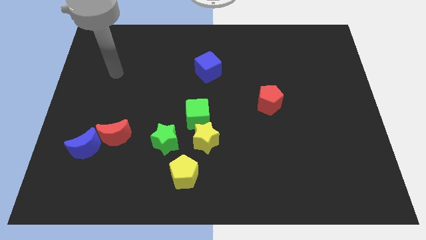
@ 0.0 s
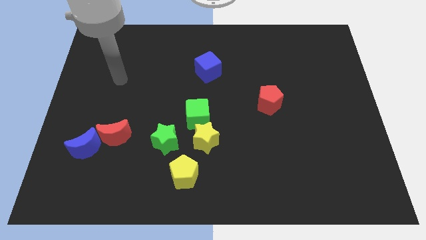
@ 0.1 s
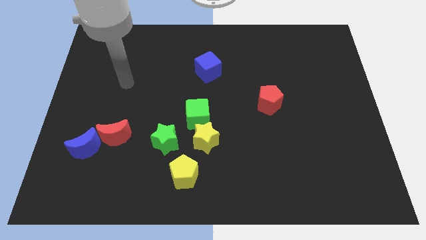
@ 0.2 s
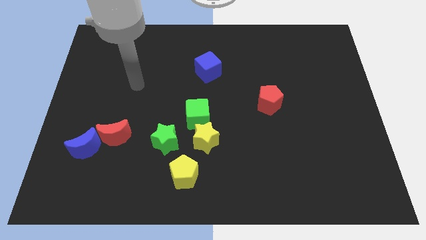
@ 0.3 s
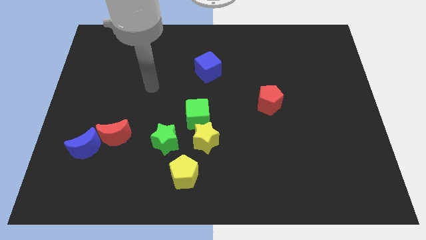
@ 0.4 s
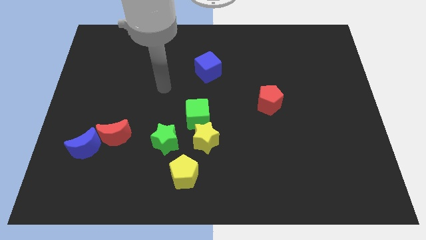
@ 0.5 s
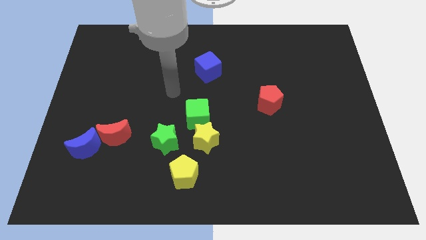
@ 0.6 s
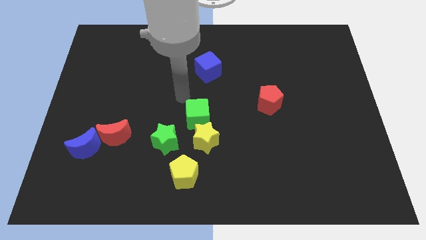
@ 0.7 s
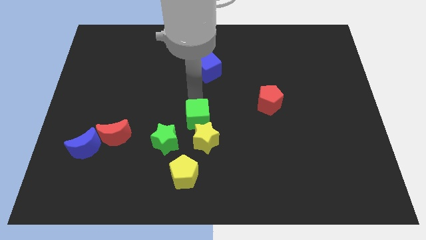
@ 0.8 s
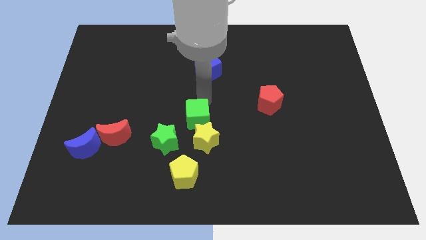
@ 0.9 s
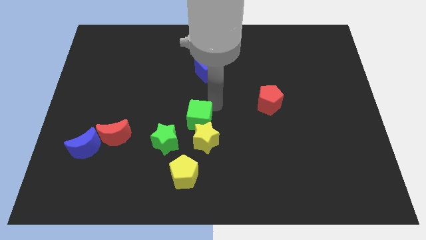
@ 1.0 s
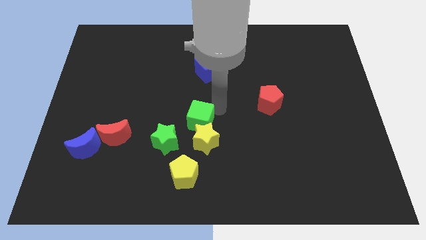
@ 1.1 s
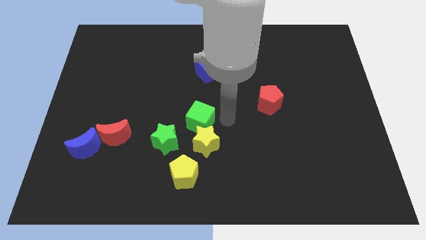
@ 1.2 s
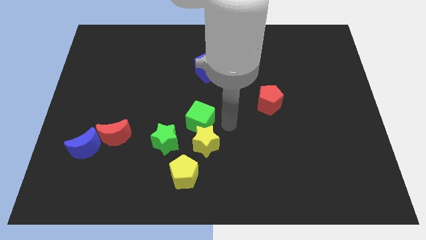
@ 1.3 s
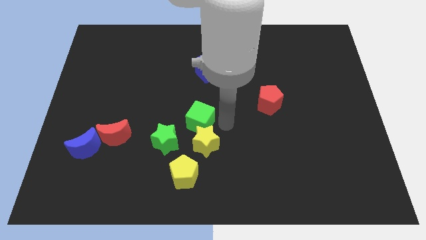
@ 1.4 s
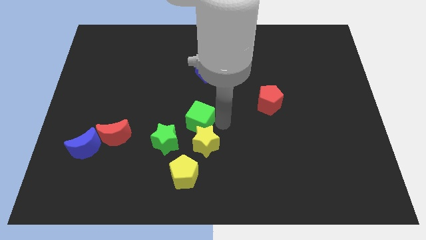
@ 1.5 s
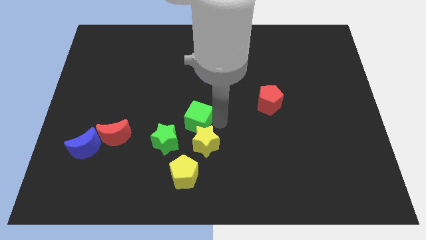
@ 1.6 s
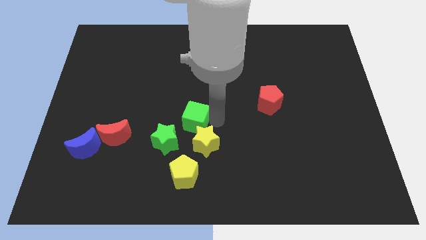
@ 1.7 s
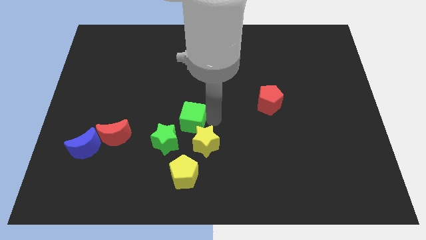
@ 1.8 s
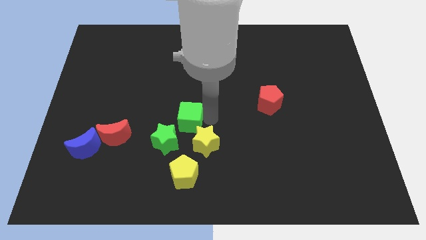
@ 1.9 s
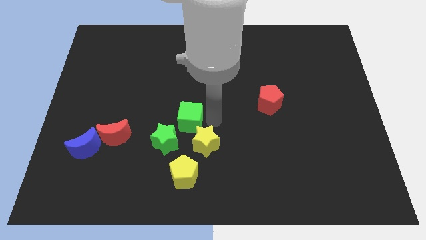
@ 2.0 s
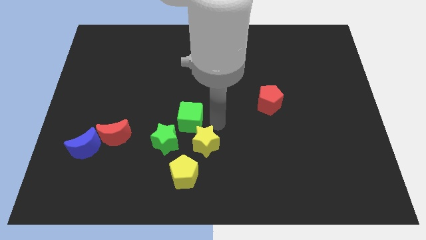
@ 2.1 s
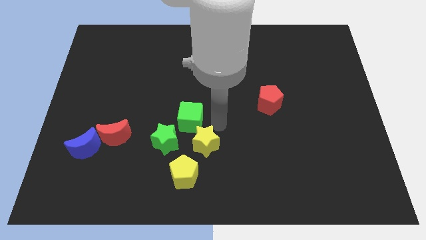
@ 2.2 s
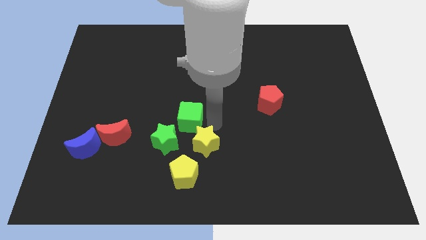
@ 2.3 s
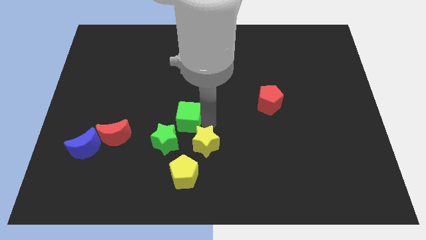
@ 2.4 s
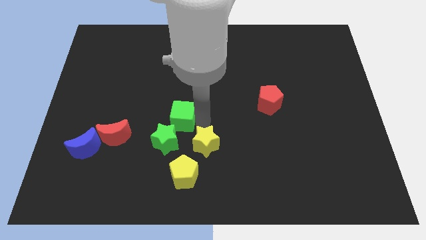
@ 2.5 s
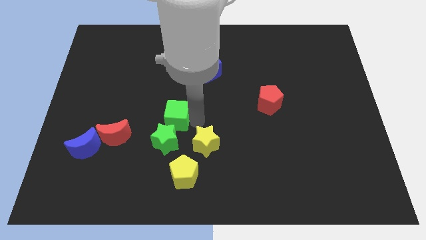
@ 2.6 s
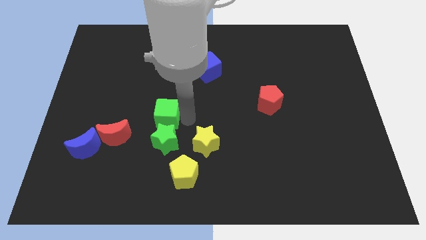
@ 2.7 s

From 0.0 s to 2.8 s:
slightly push the green cube left

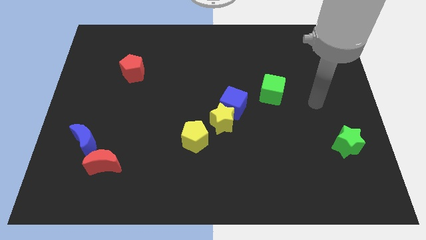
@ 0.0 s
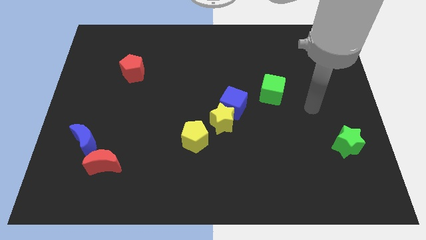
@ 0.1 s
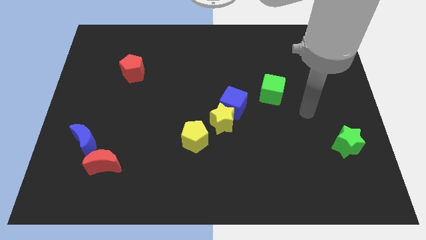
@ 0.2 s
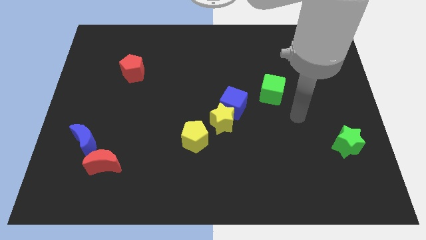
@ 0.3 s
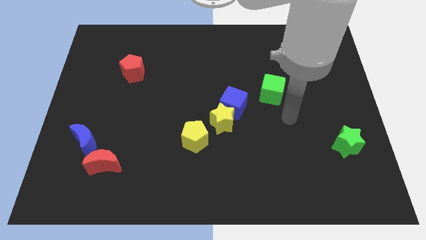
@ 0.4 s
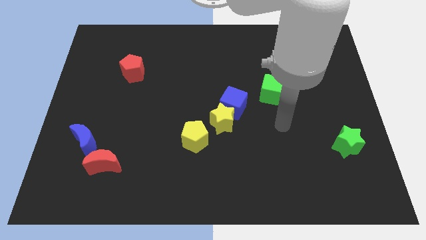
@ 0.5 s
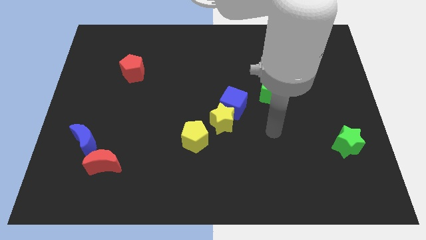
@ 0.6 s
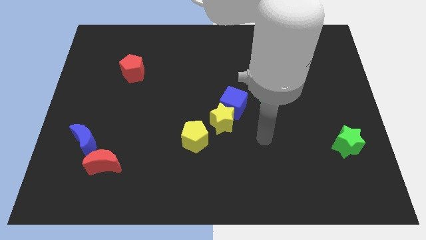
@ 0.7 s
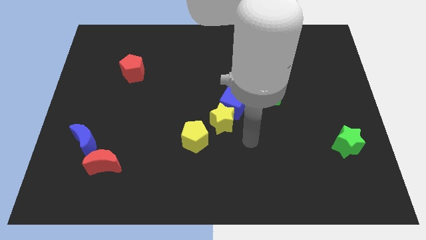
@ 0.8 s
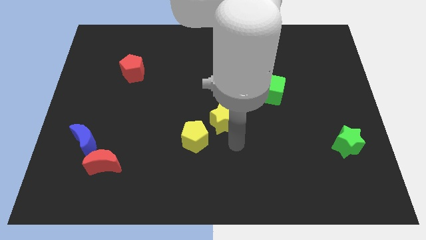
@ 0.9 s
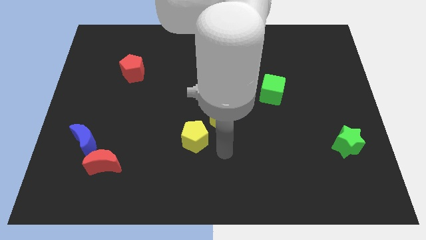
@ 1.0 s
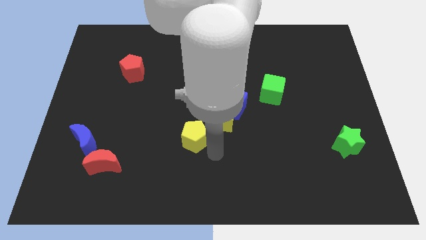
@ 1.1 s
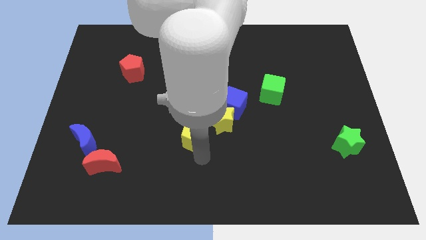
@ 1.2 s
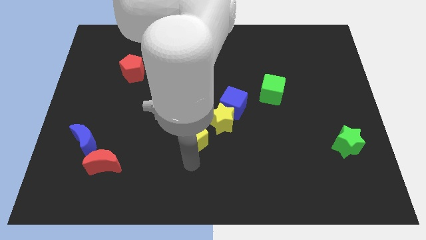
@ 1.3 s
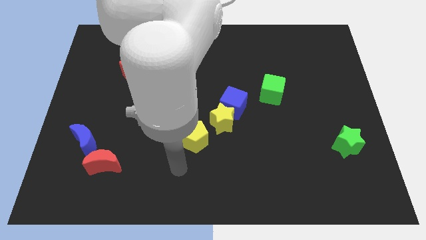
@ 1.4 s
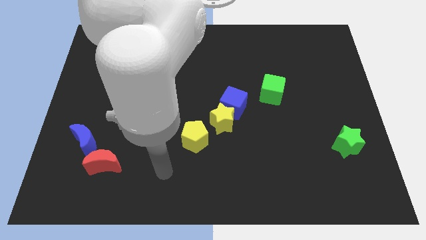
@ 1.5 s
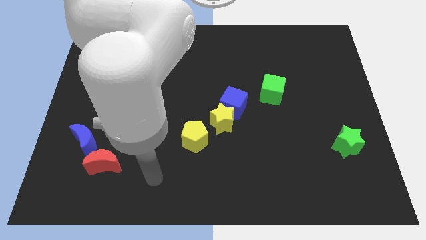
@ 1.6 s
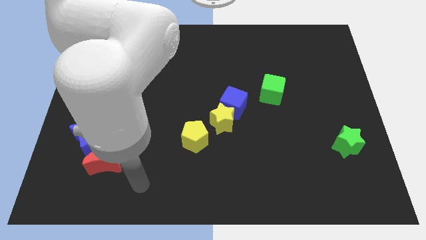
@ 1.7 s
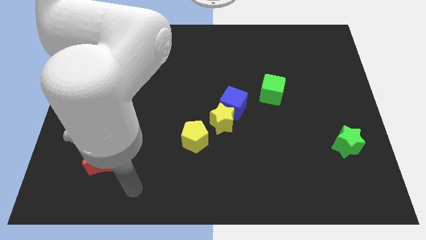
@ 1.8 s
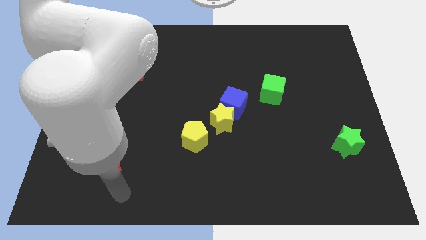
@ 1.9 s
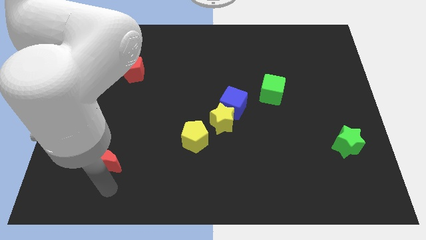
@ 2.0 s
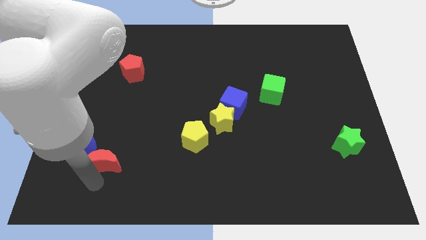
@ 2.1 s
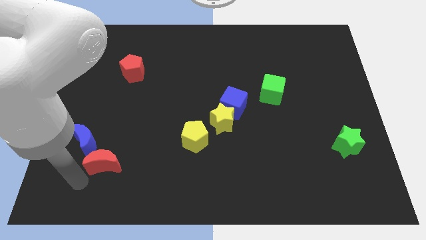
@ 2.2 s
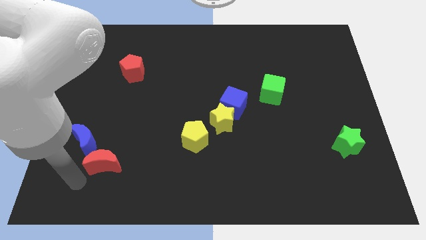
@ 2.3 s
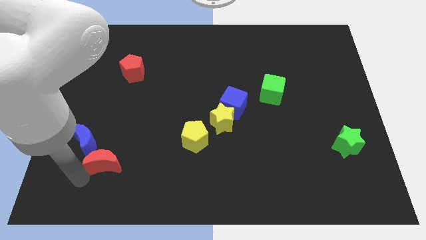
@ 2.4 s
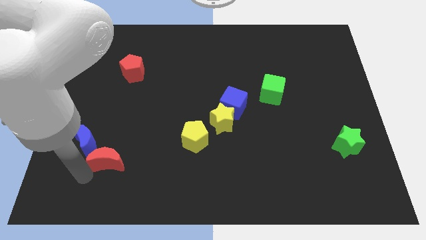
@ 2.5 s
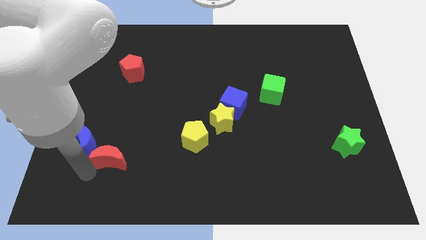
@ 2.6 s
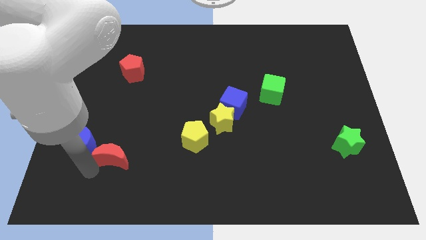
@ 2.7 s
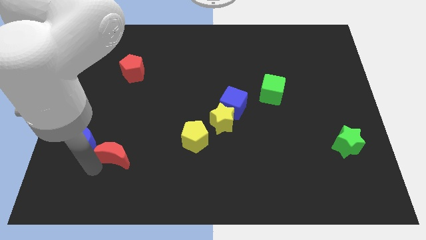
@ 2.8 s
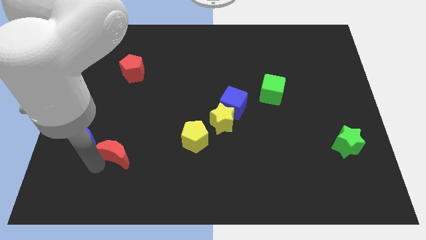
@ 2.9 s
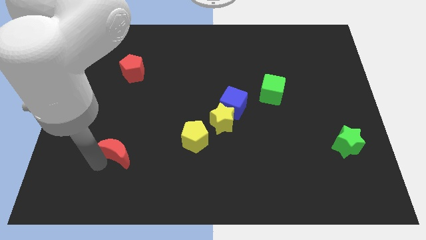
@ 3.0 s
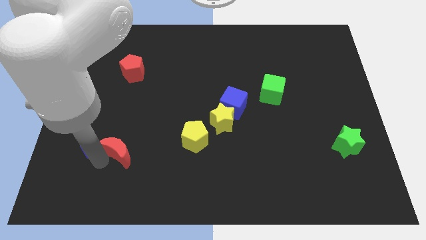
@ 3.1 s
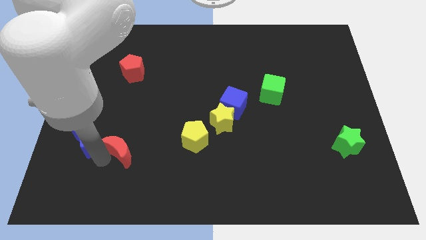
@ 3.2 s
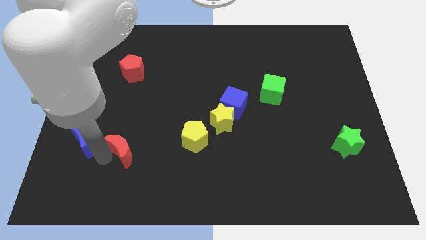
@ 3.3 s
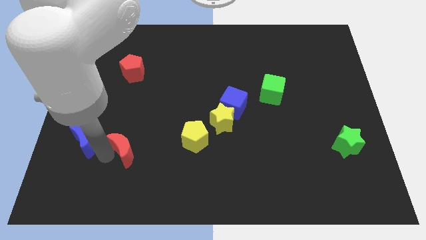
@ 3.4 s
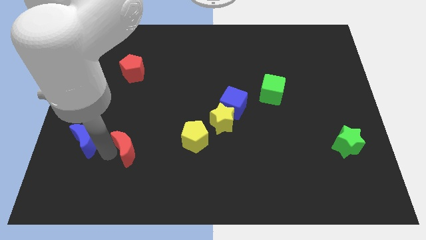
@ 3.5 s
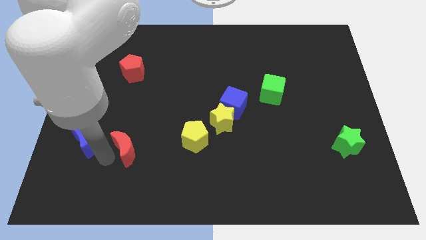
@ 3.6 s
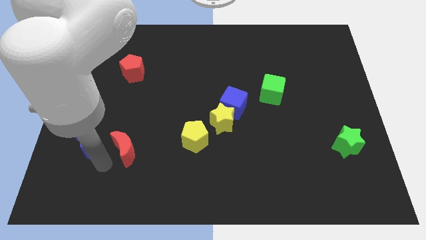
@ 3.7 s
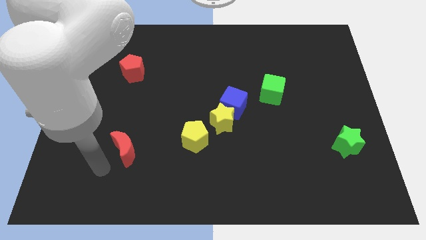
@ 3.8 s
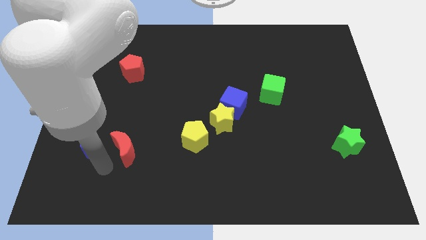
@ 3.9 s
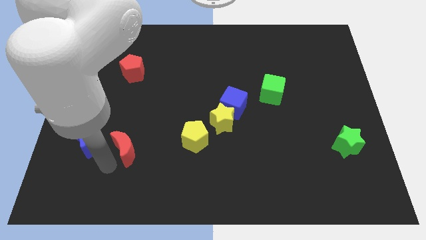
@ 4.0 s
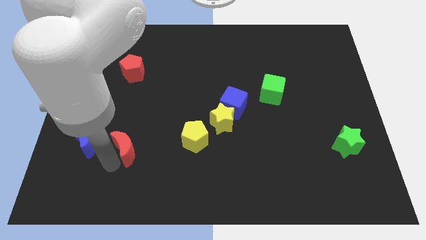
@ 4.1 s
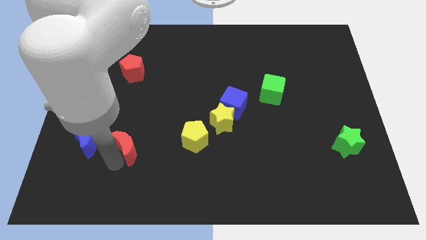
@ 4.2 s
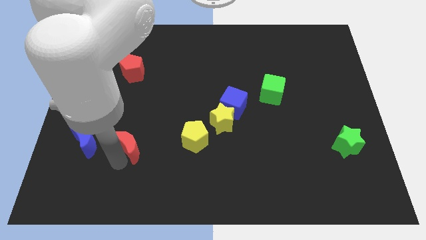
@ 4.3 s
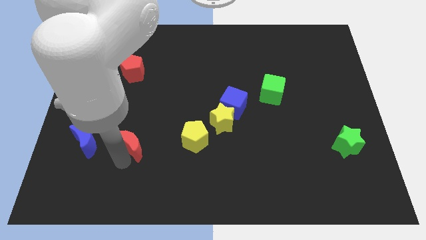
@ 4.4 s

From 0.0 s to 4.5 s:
slide the red moon upwards and to the right a little bit

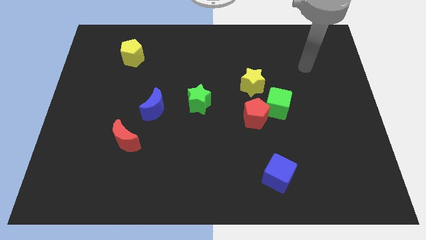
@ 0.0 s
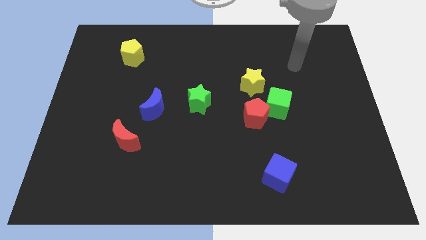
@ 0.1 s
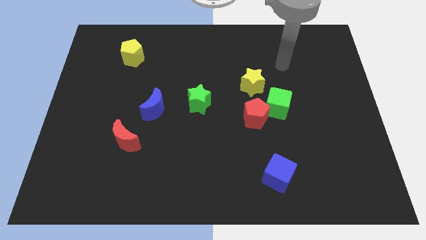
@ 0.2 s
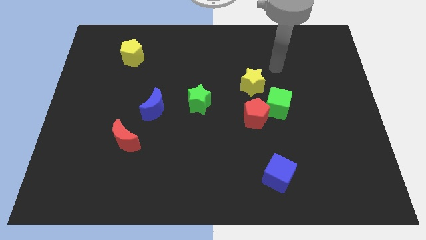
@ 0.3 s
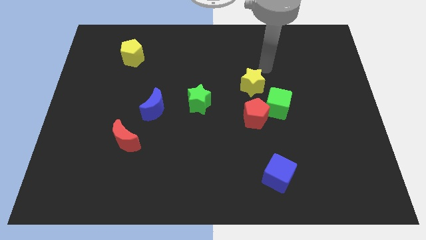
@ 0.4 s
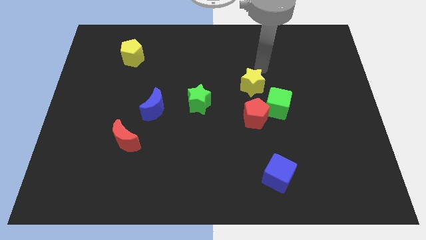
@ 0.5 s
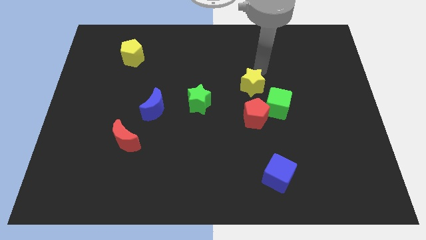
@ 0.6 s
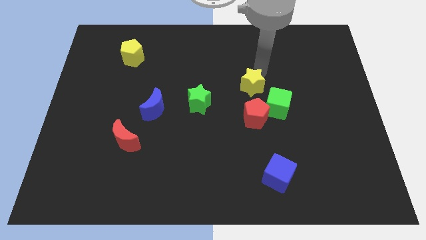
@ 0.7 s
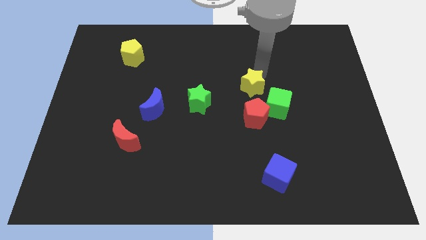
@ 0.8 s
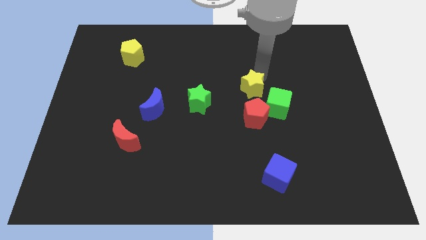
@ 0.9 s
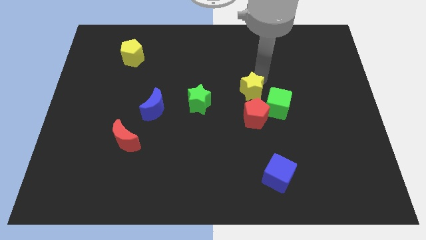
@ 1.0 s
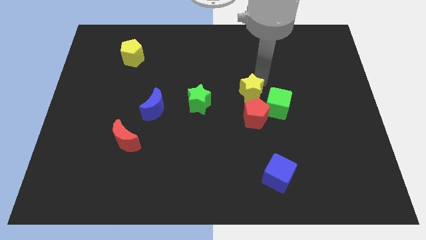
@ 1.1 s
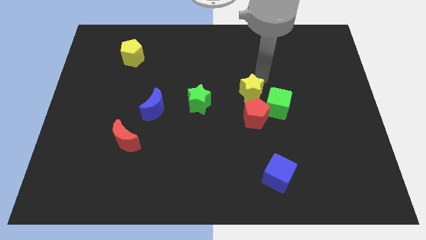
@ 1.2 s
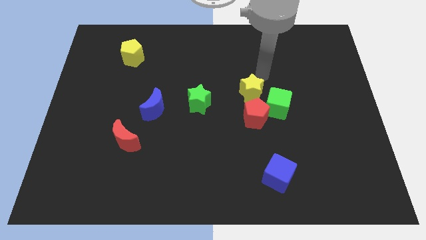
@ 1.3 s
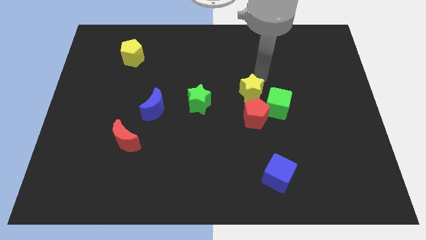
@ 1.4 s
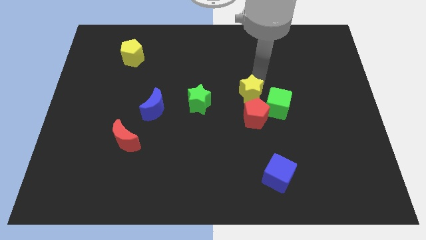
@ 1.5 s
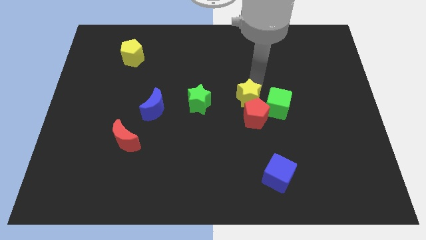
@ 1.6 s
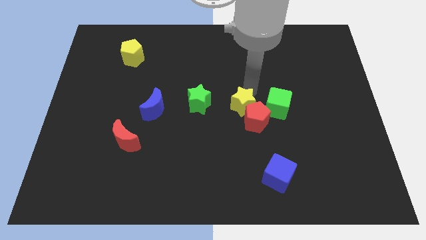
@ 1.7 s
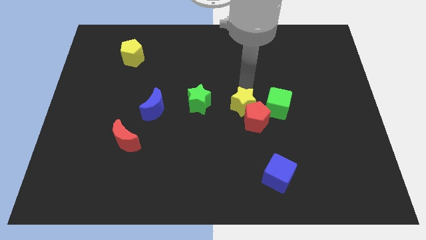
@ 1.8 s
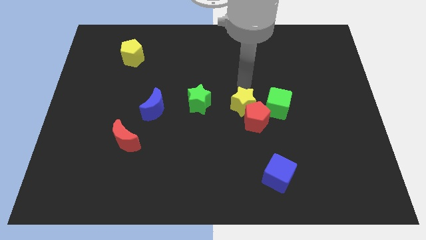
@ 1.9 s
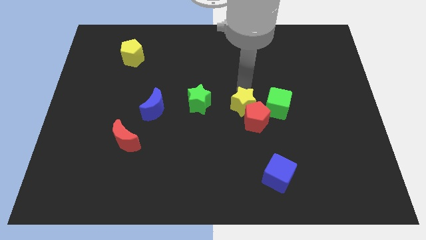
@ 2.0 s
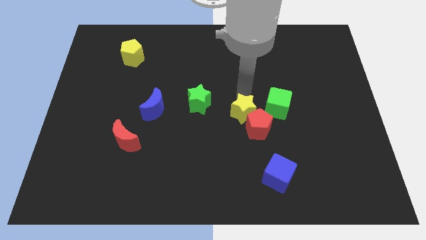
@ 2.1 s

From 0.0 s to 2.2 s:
push the yellow star a little bit down
